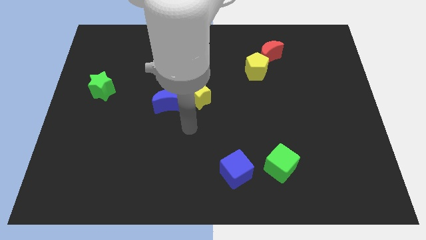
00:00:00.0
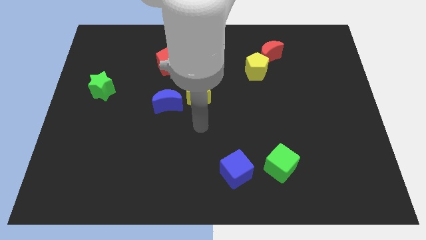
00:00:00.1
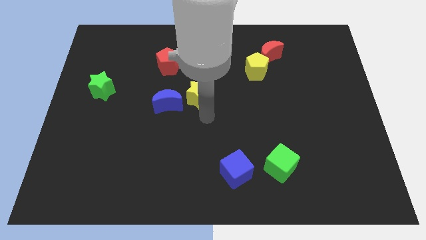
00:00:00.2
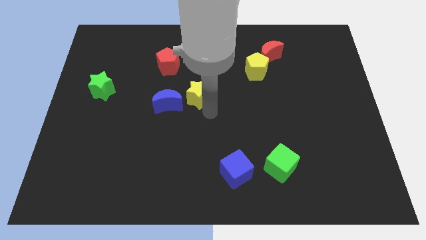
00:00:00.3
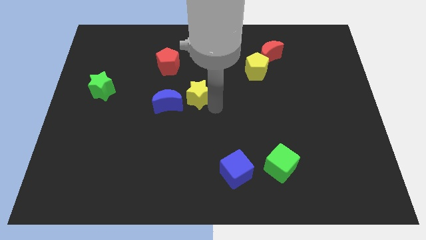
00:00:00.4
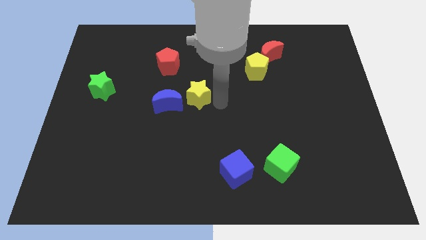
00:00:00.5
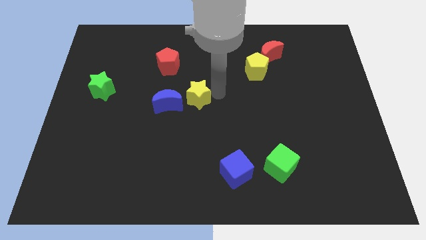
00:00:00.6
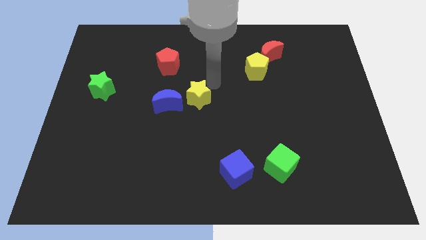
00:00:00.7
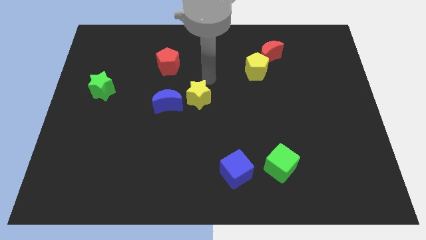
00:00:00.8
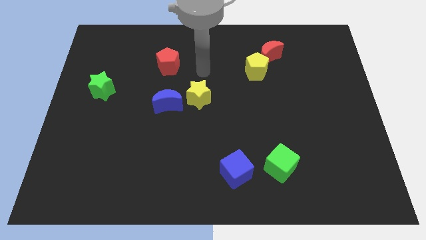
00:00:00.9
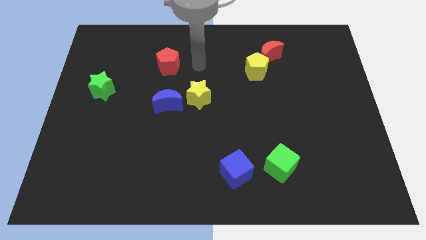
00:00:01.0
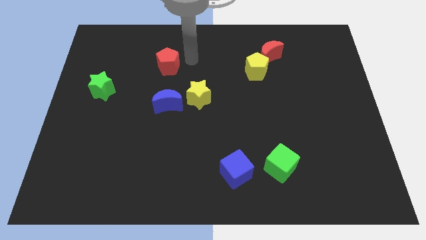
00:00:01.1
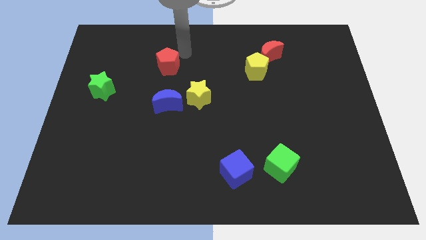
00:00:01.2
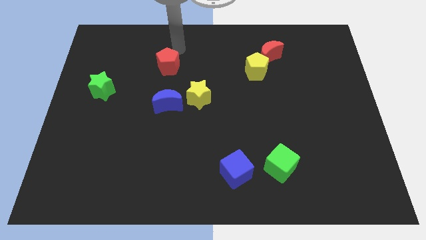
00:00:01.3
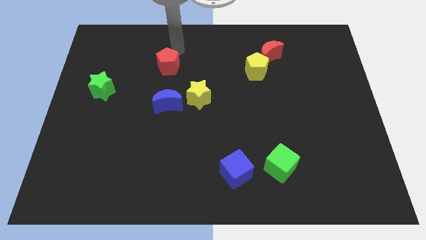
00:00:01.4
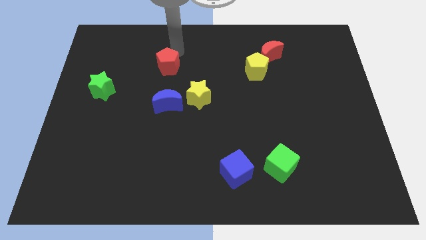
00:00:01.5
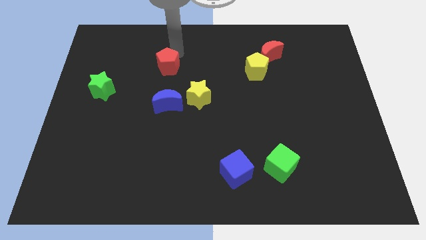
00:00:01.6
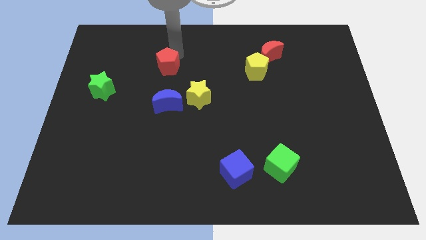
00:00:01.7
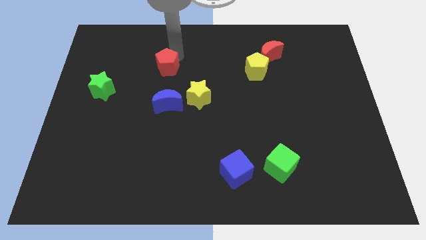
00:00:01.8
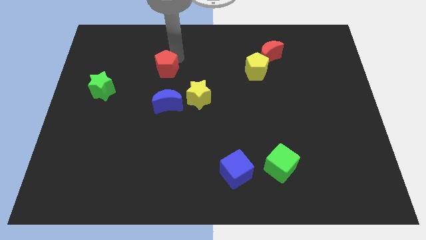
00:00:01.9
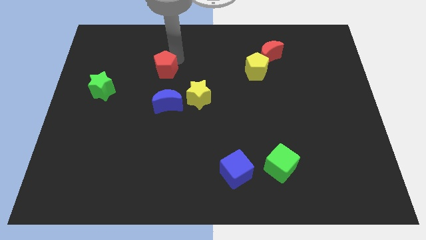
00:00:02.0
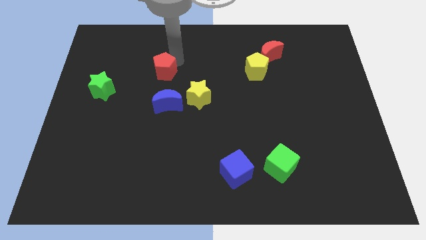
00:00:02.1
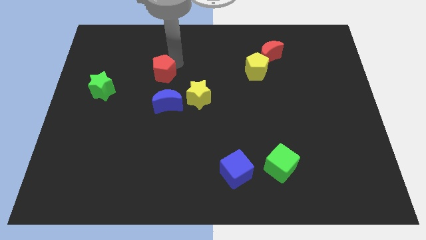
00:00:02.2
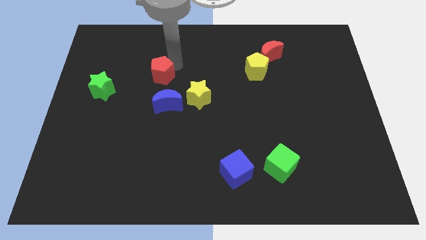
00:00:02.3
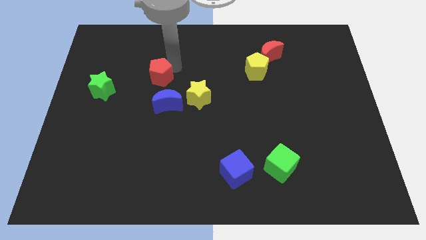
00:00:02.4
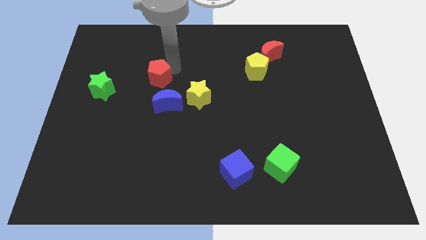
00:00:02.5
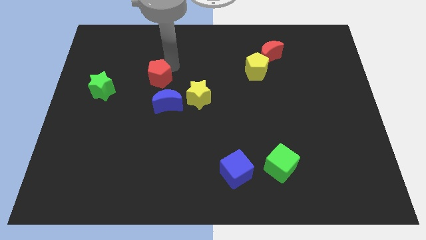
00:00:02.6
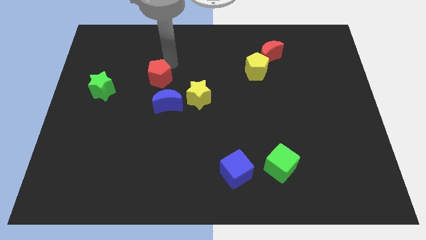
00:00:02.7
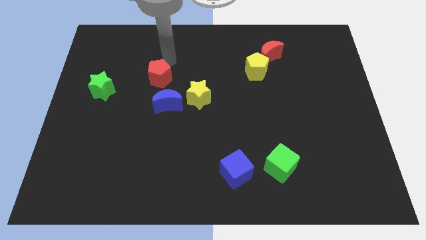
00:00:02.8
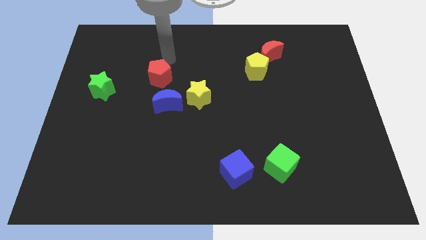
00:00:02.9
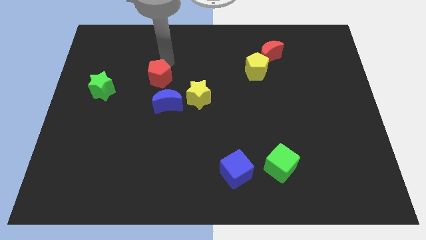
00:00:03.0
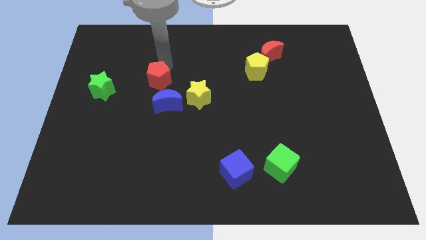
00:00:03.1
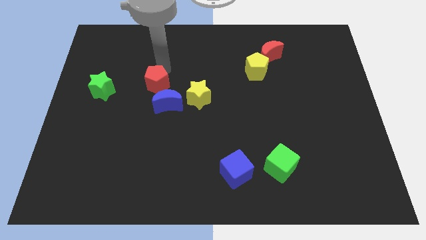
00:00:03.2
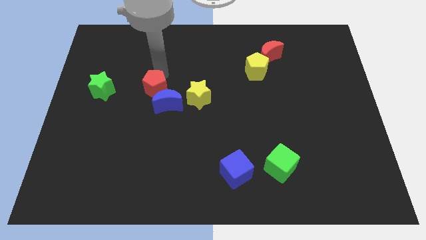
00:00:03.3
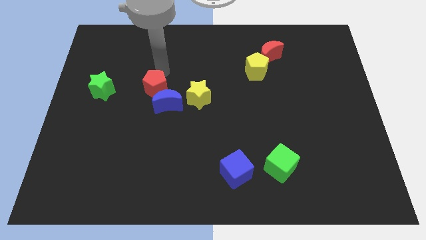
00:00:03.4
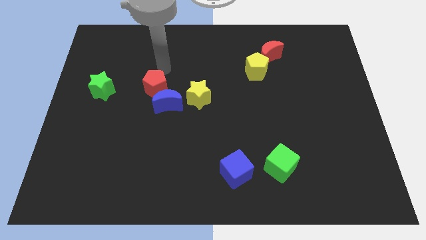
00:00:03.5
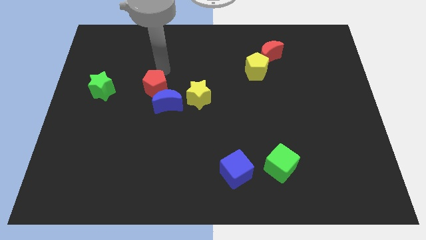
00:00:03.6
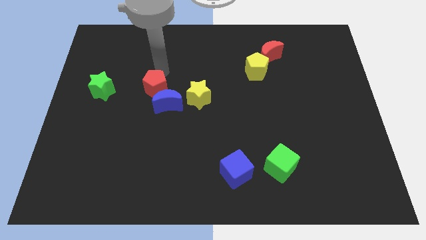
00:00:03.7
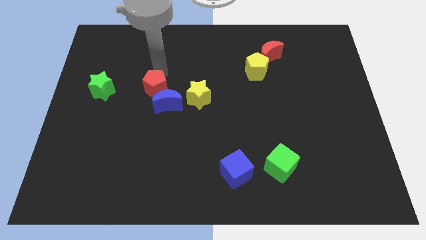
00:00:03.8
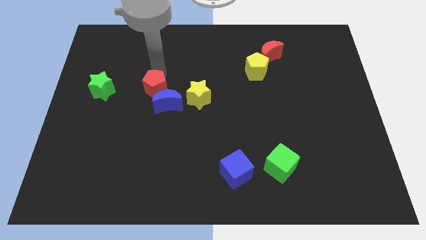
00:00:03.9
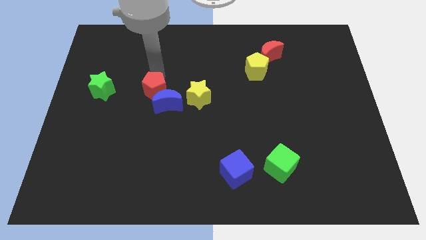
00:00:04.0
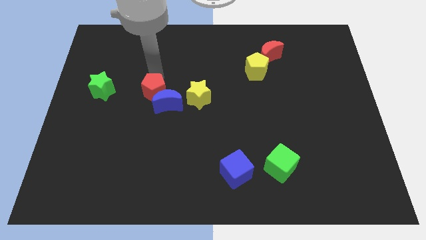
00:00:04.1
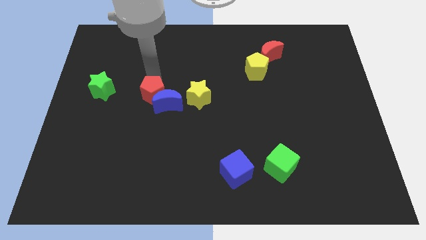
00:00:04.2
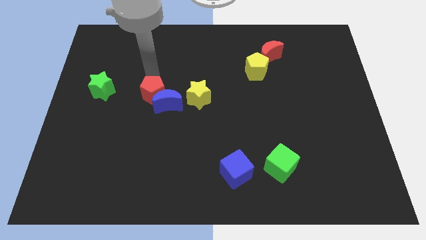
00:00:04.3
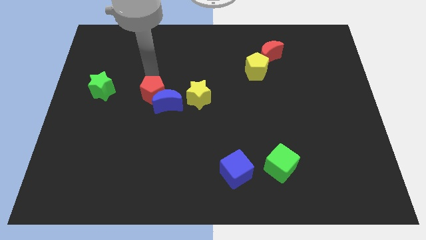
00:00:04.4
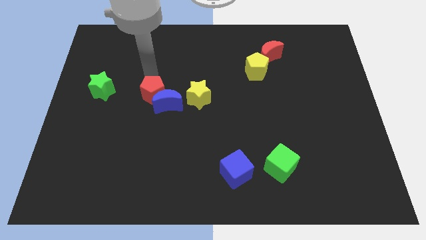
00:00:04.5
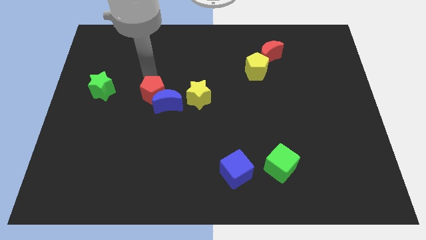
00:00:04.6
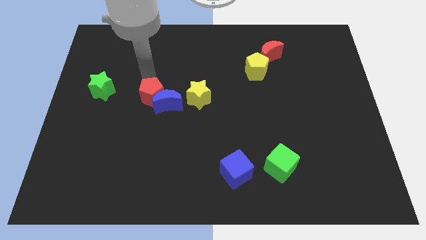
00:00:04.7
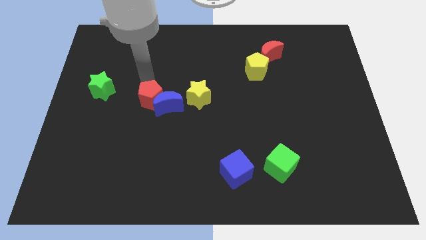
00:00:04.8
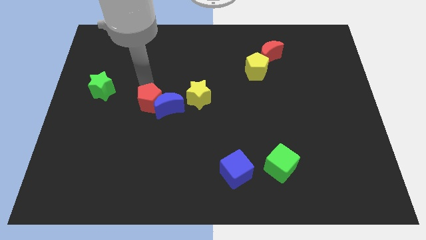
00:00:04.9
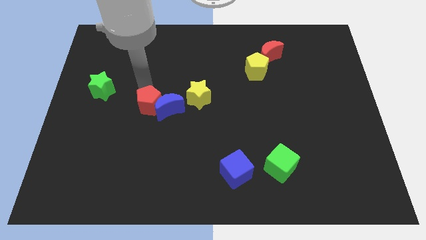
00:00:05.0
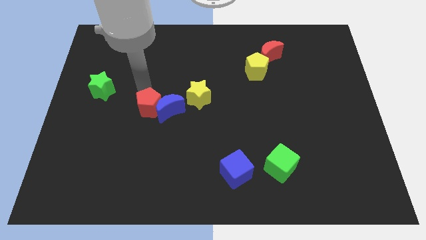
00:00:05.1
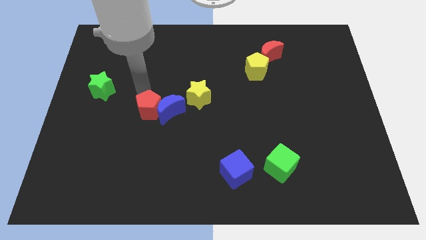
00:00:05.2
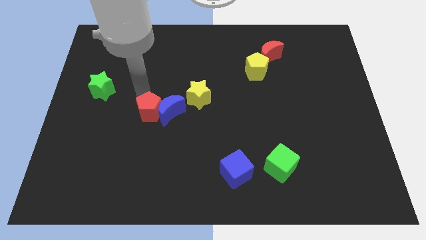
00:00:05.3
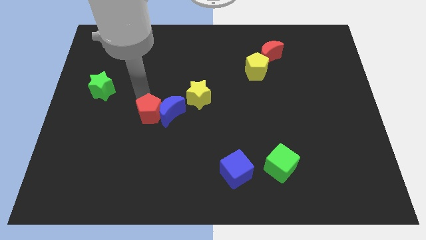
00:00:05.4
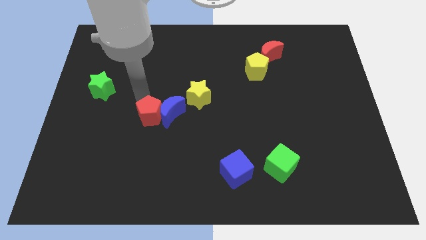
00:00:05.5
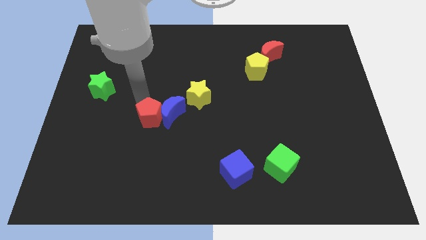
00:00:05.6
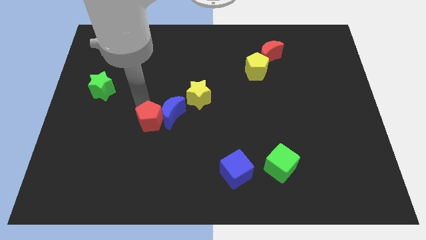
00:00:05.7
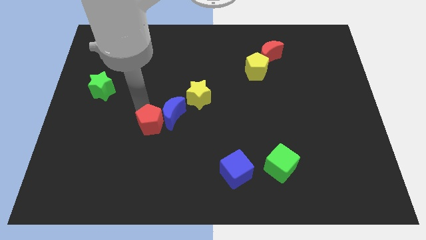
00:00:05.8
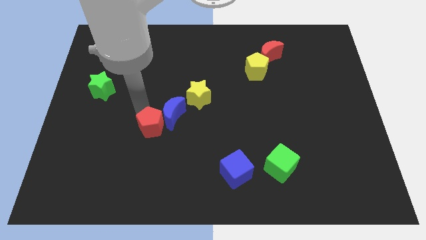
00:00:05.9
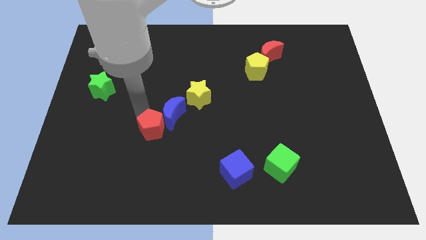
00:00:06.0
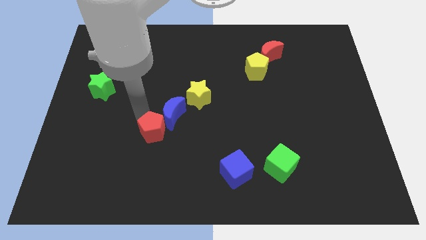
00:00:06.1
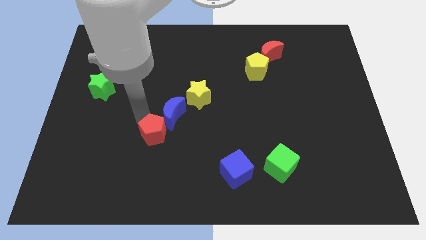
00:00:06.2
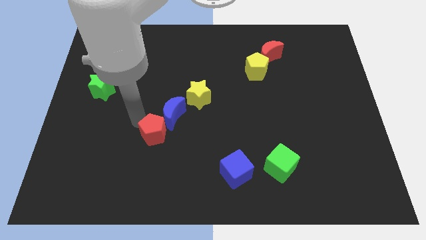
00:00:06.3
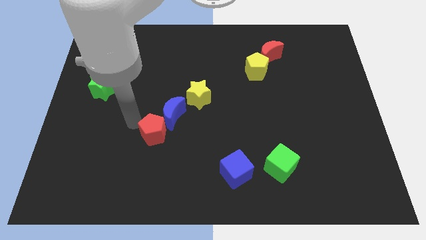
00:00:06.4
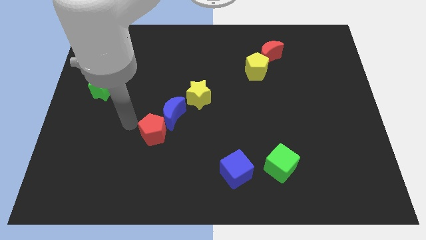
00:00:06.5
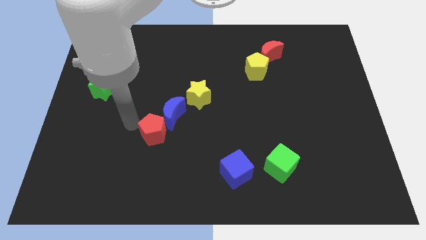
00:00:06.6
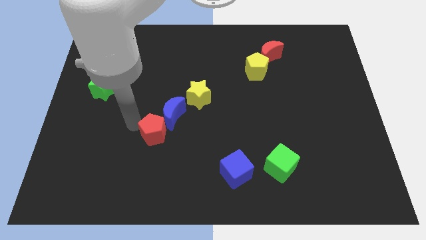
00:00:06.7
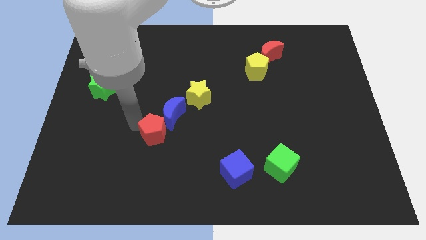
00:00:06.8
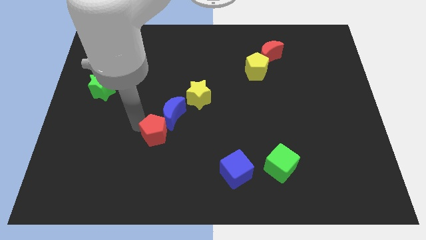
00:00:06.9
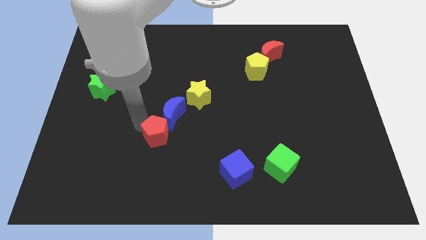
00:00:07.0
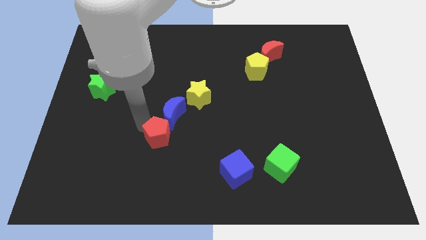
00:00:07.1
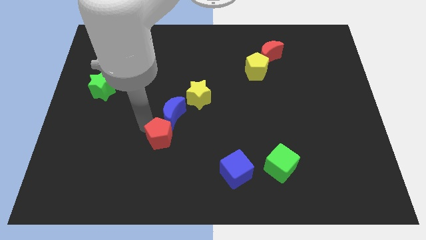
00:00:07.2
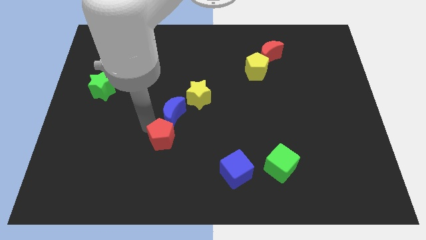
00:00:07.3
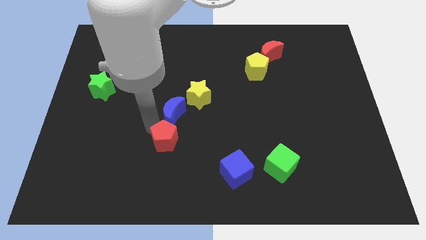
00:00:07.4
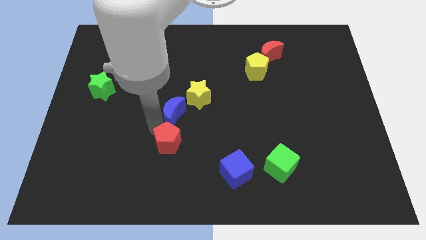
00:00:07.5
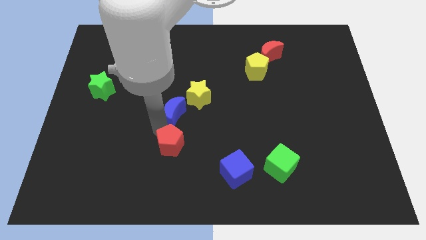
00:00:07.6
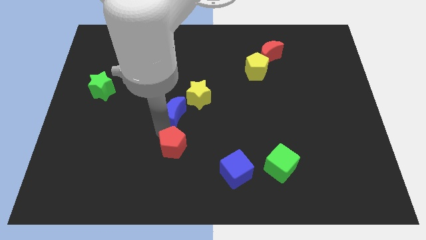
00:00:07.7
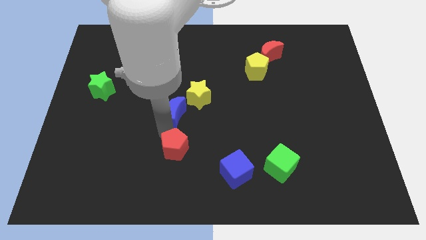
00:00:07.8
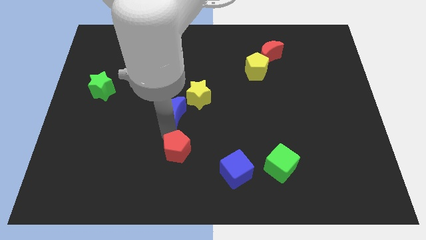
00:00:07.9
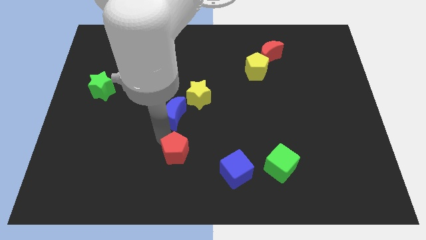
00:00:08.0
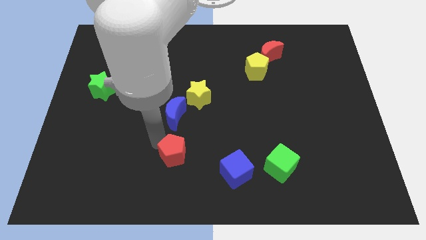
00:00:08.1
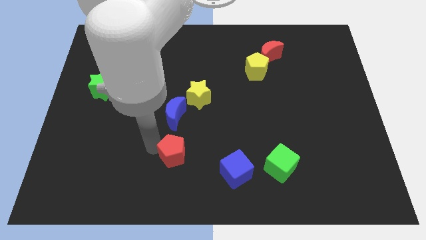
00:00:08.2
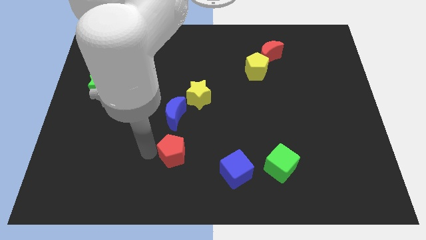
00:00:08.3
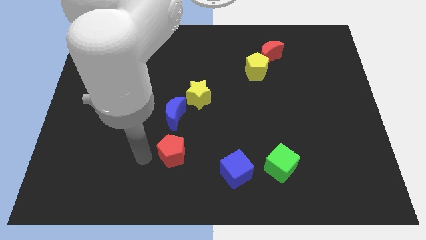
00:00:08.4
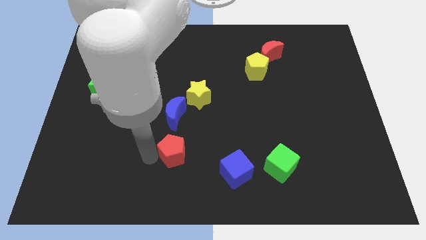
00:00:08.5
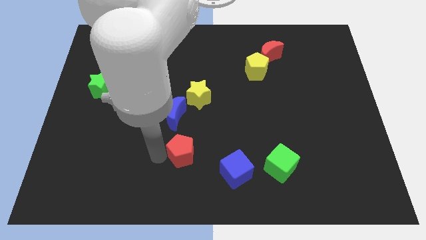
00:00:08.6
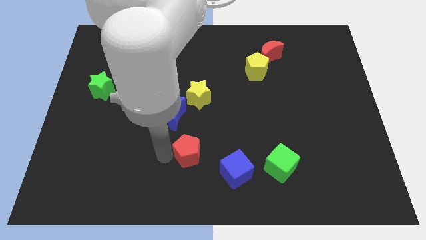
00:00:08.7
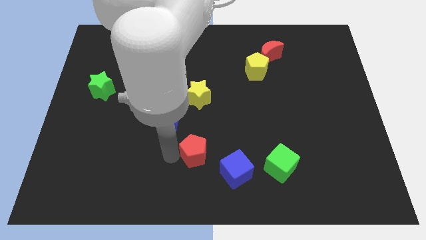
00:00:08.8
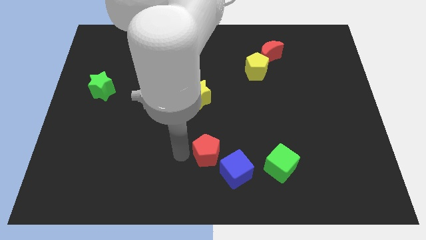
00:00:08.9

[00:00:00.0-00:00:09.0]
move the red pentagon just left of the green cube
